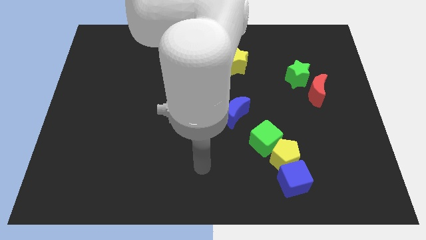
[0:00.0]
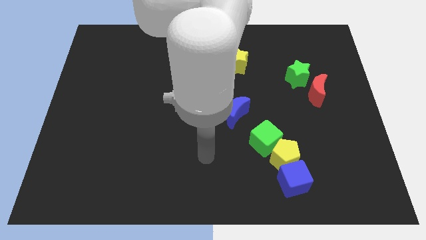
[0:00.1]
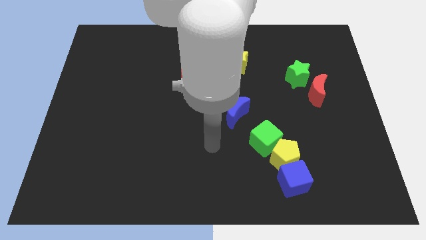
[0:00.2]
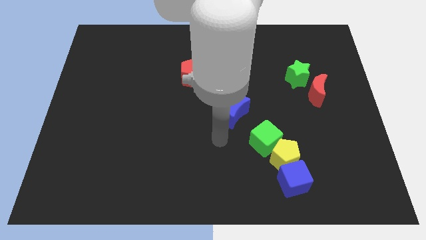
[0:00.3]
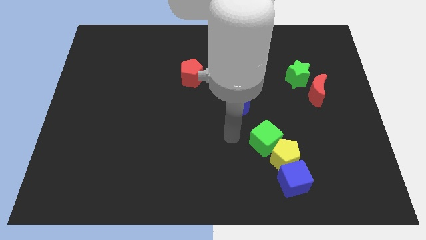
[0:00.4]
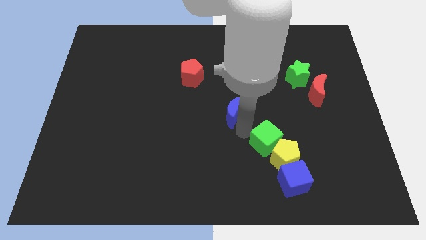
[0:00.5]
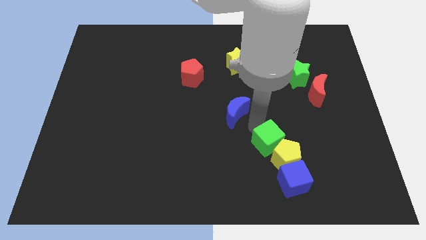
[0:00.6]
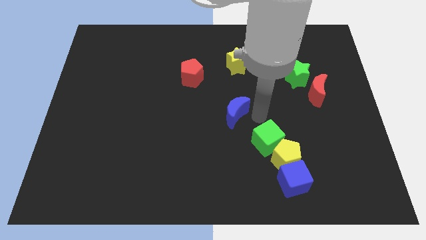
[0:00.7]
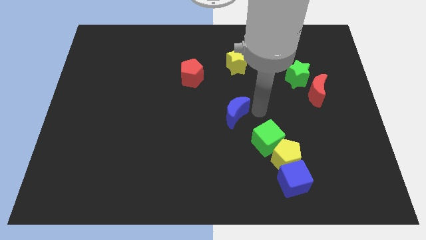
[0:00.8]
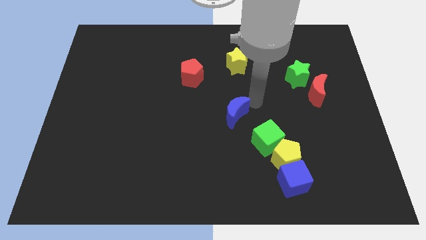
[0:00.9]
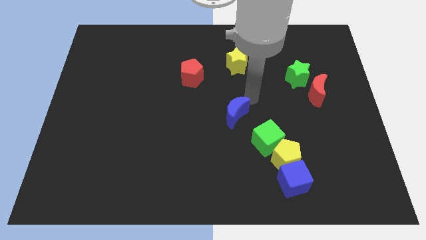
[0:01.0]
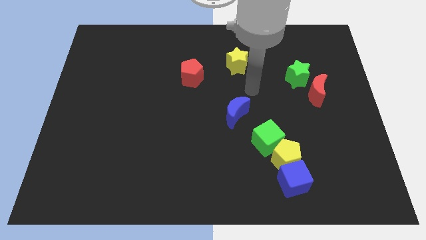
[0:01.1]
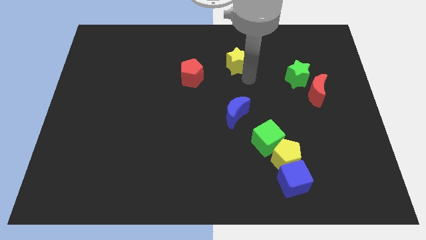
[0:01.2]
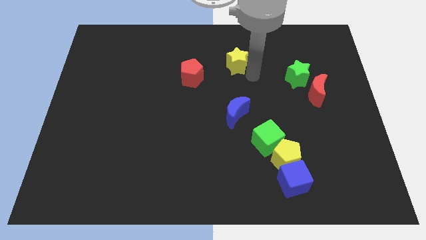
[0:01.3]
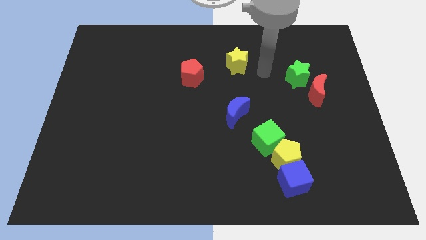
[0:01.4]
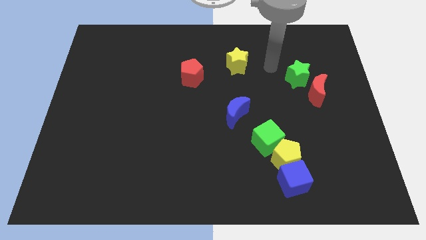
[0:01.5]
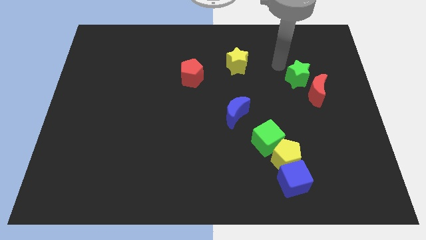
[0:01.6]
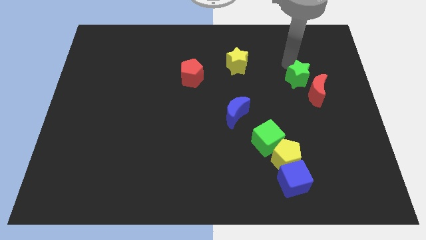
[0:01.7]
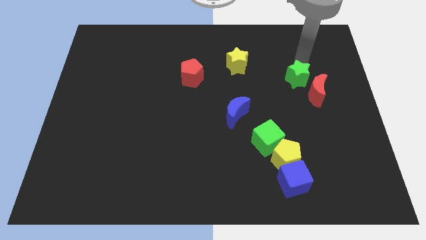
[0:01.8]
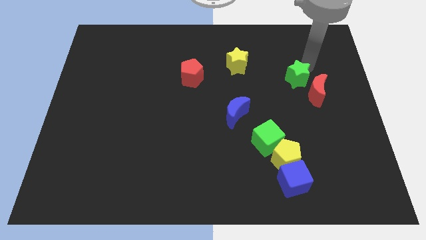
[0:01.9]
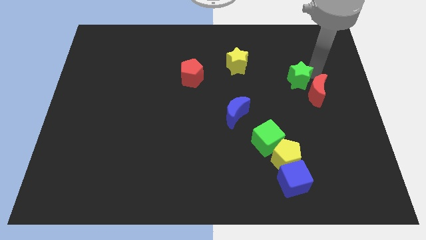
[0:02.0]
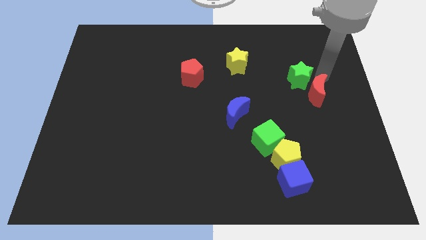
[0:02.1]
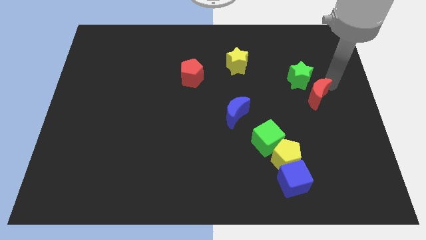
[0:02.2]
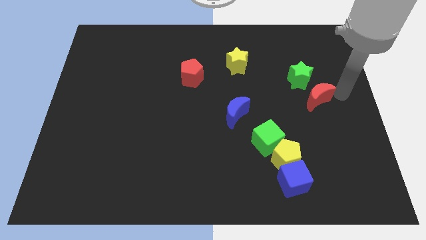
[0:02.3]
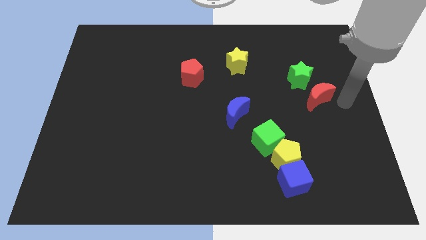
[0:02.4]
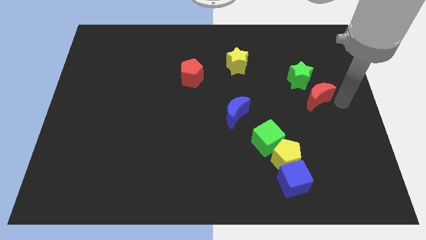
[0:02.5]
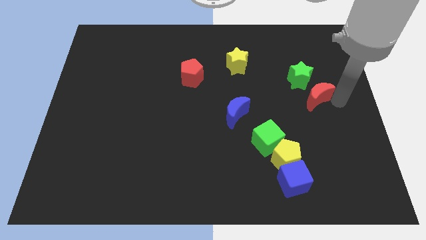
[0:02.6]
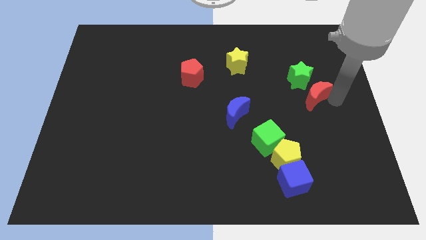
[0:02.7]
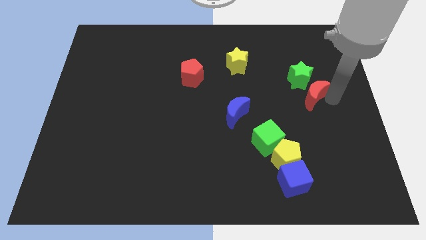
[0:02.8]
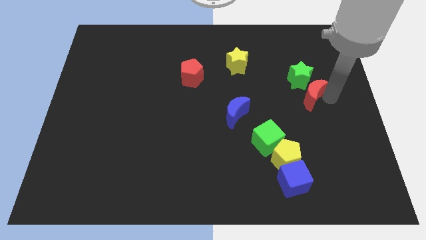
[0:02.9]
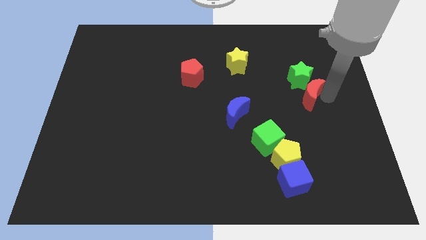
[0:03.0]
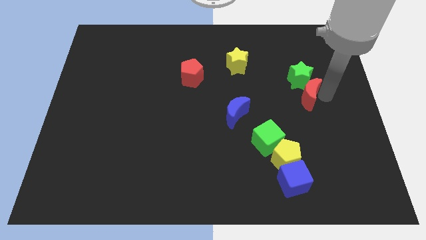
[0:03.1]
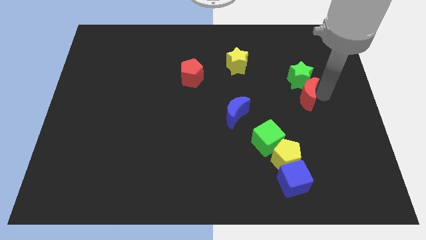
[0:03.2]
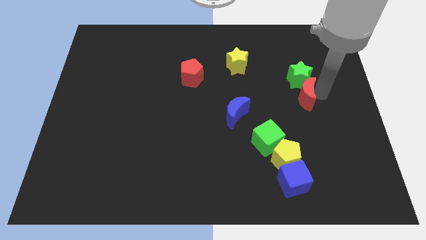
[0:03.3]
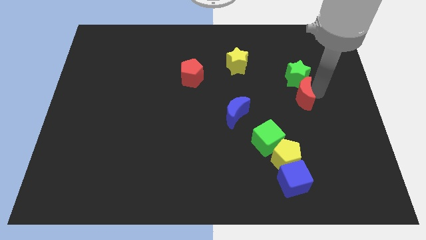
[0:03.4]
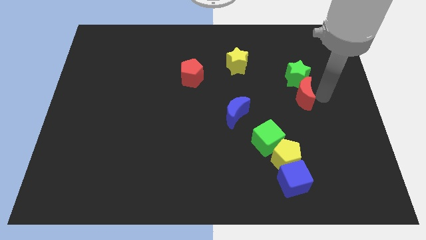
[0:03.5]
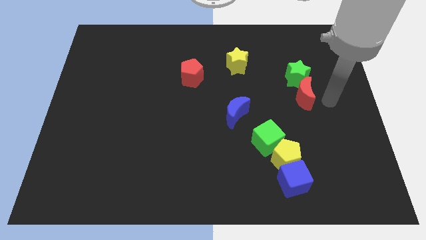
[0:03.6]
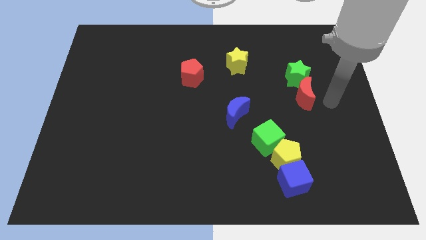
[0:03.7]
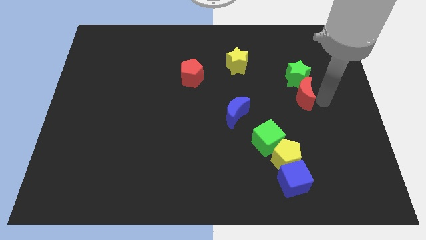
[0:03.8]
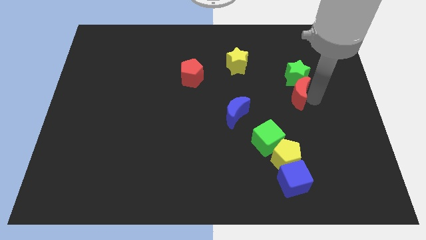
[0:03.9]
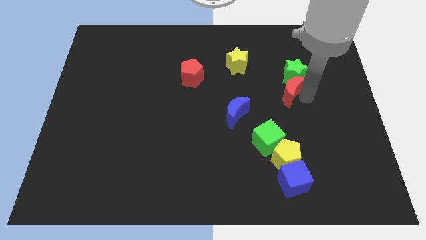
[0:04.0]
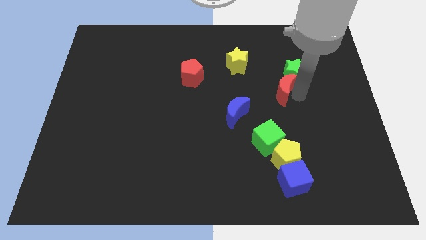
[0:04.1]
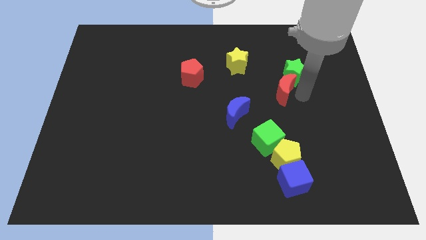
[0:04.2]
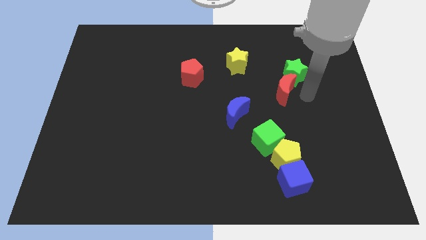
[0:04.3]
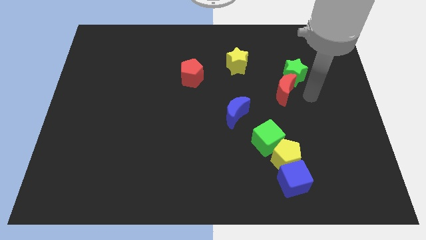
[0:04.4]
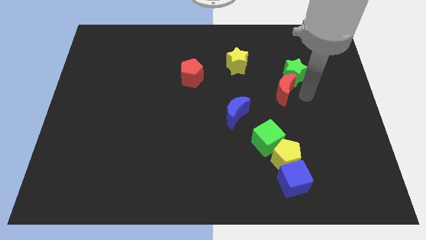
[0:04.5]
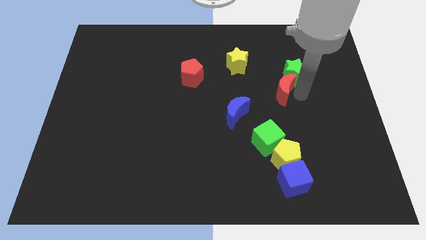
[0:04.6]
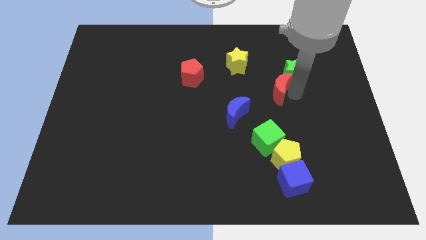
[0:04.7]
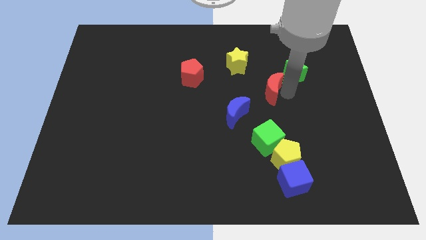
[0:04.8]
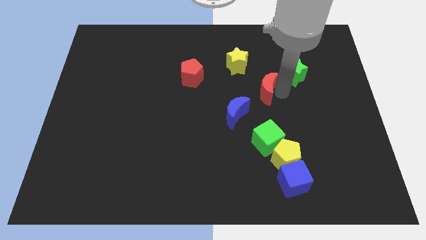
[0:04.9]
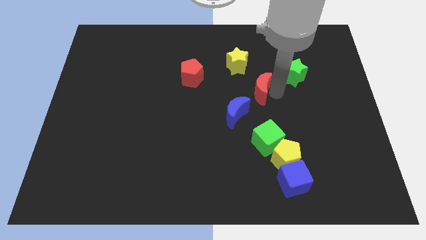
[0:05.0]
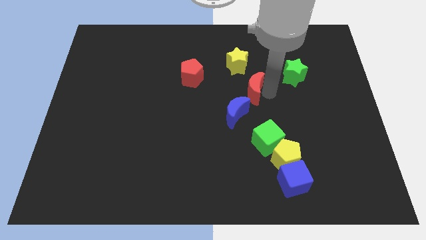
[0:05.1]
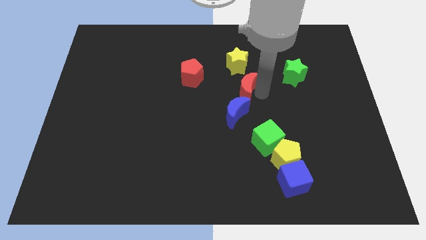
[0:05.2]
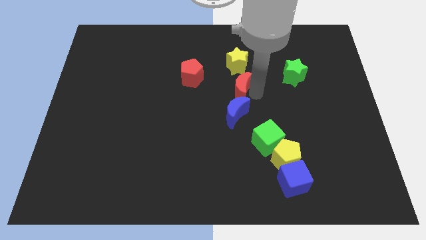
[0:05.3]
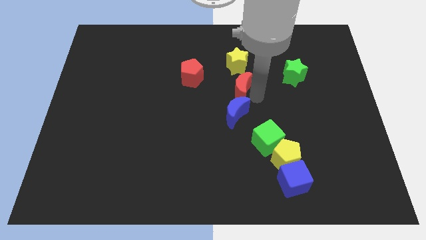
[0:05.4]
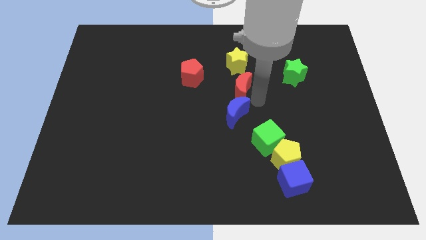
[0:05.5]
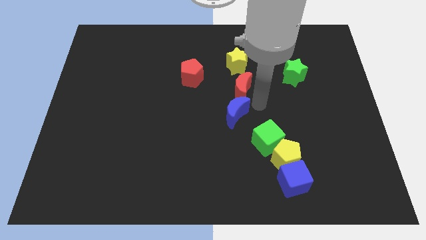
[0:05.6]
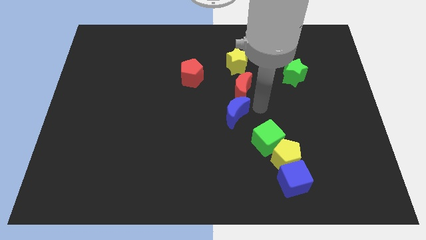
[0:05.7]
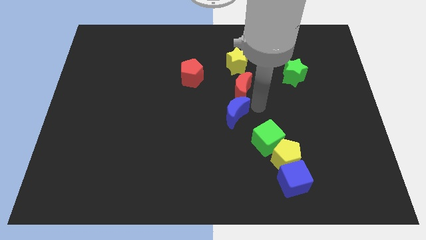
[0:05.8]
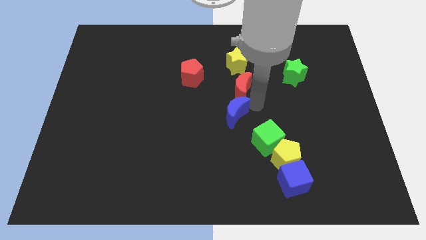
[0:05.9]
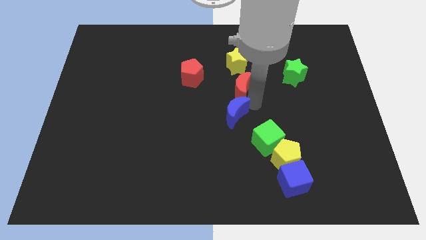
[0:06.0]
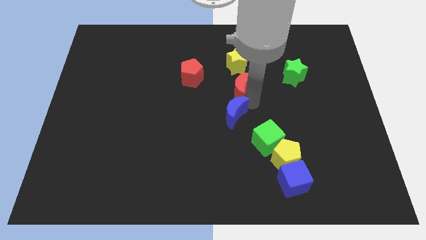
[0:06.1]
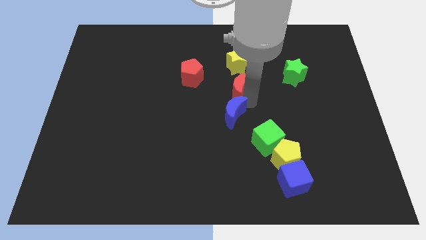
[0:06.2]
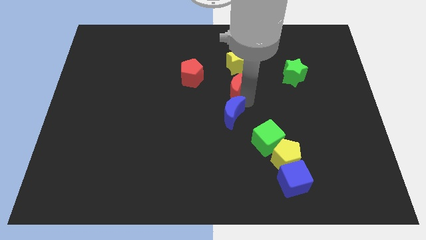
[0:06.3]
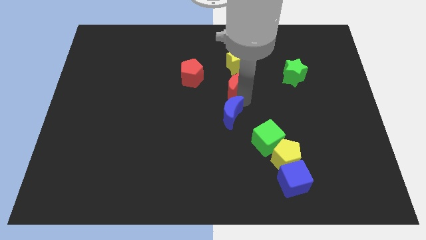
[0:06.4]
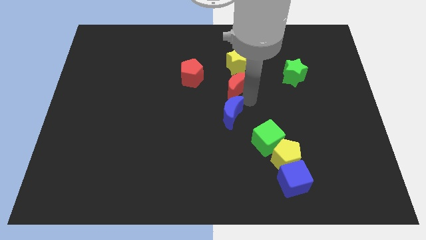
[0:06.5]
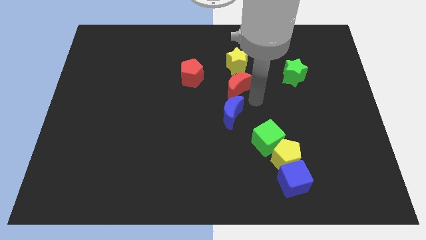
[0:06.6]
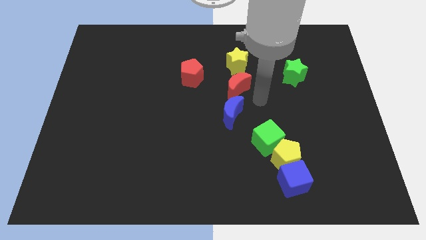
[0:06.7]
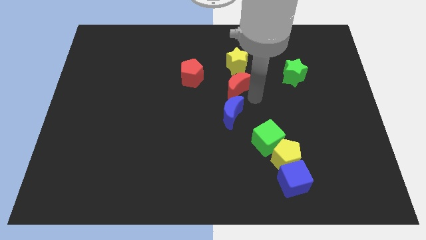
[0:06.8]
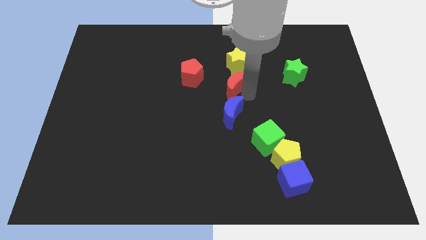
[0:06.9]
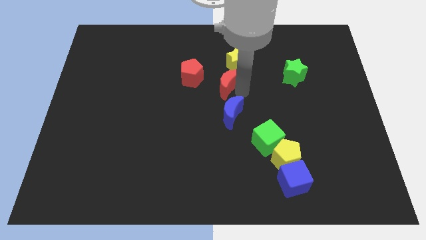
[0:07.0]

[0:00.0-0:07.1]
put the red moon to the bottom left of the yellow star
